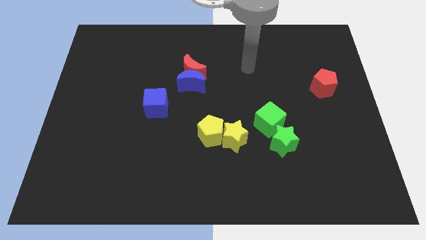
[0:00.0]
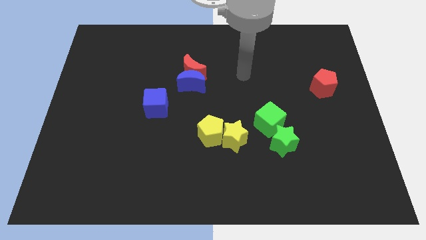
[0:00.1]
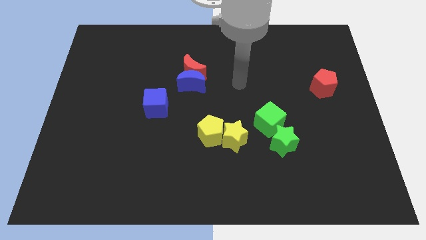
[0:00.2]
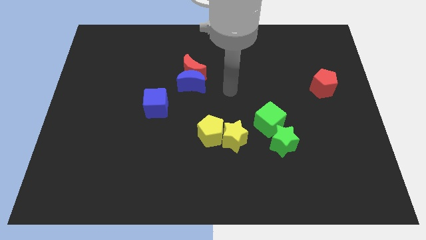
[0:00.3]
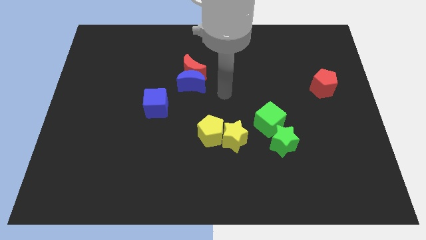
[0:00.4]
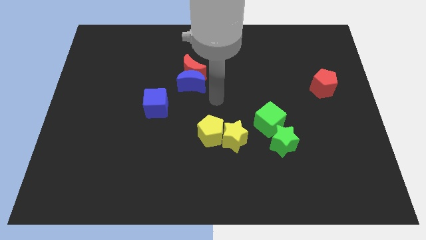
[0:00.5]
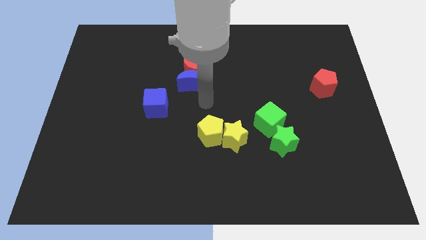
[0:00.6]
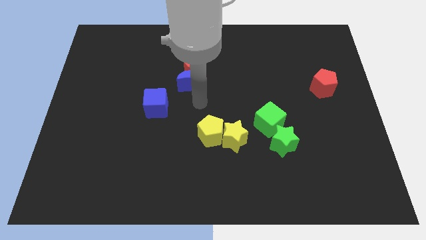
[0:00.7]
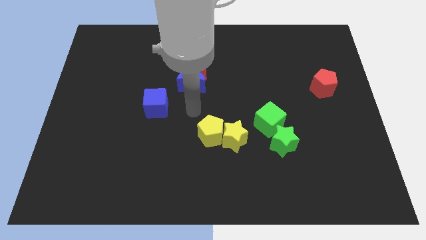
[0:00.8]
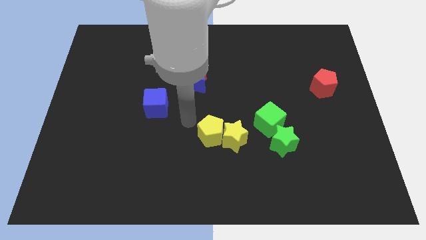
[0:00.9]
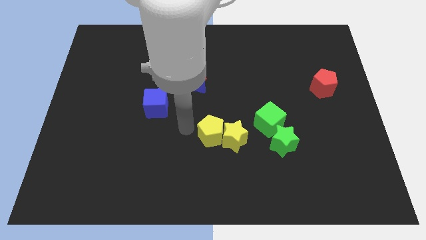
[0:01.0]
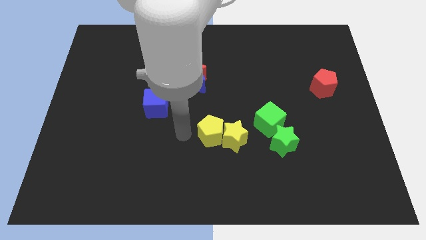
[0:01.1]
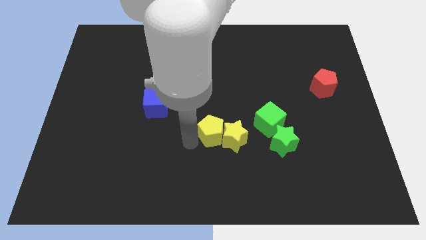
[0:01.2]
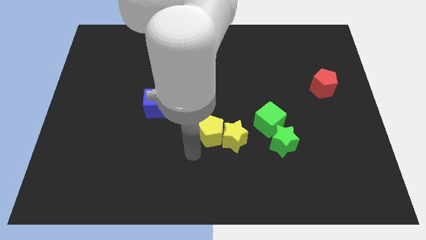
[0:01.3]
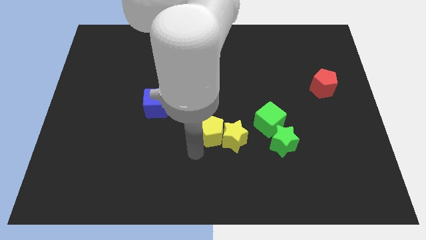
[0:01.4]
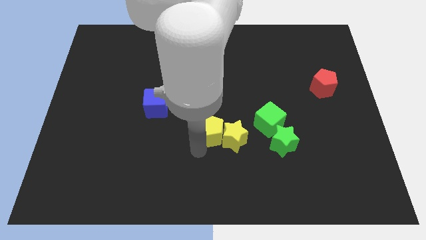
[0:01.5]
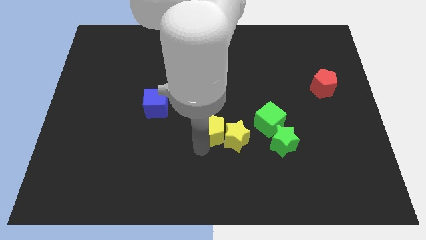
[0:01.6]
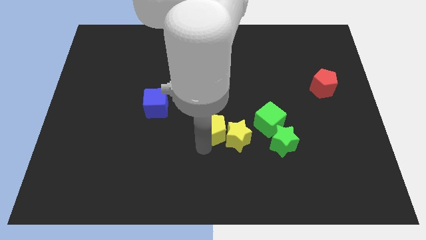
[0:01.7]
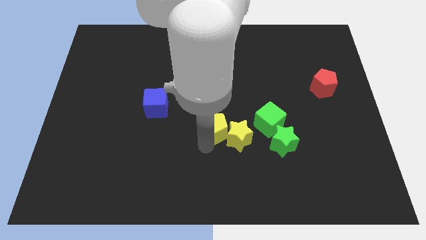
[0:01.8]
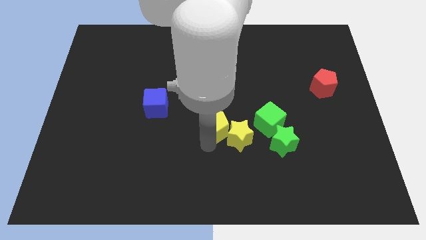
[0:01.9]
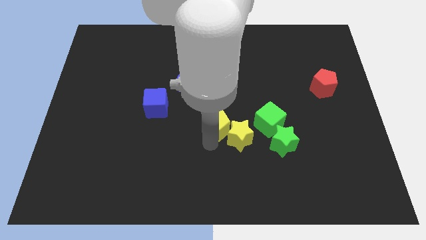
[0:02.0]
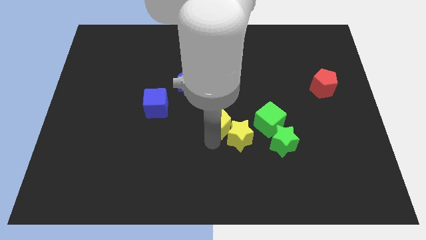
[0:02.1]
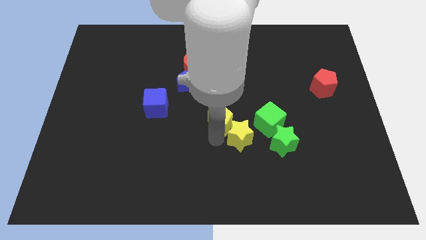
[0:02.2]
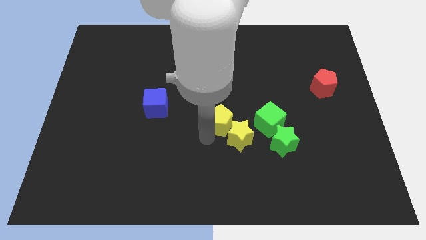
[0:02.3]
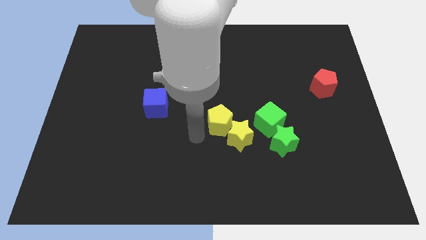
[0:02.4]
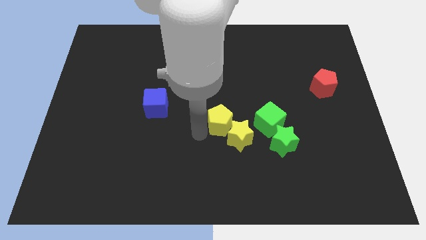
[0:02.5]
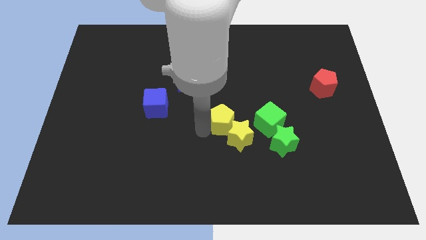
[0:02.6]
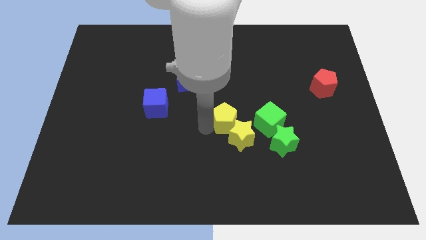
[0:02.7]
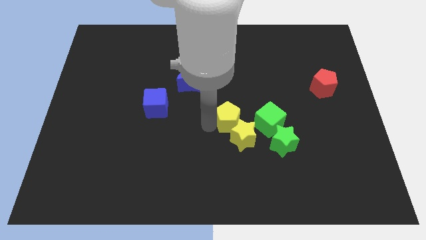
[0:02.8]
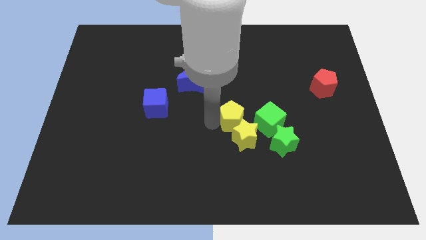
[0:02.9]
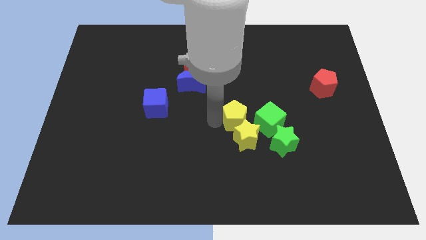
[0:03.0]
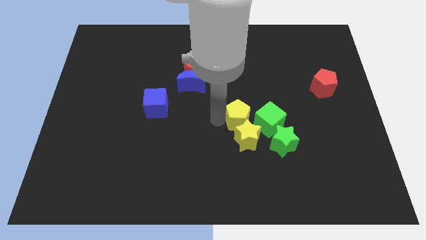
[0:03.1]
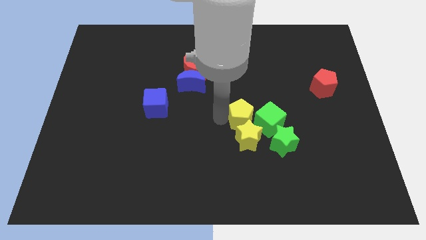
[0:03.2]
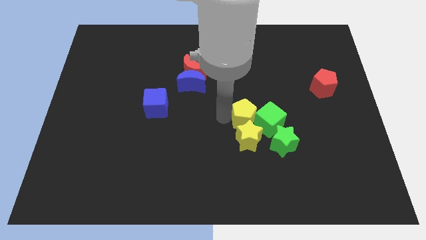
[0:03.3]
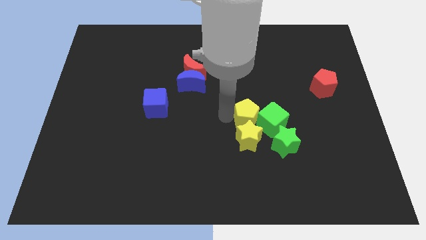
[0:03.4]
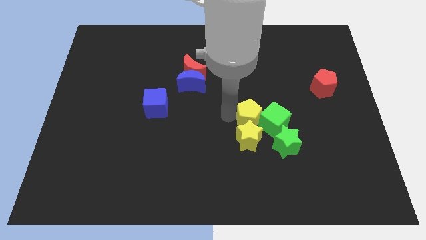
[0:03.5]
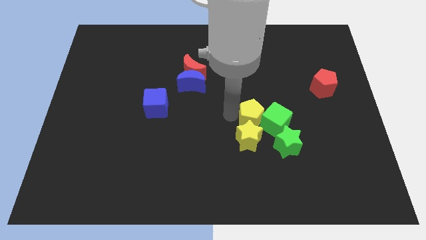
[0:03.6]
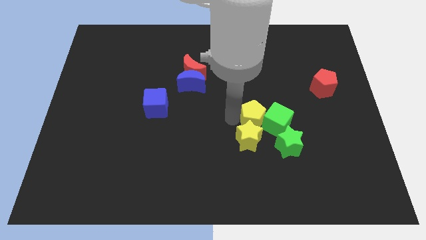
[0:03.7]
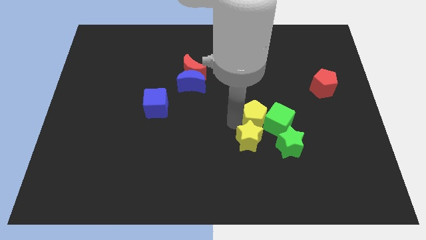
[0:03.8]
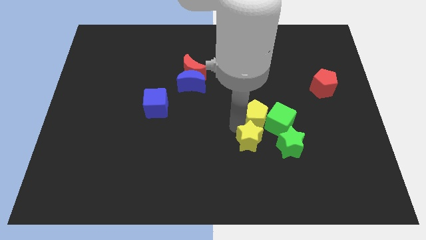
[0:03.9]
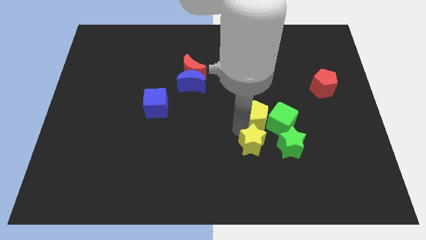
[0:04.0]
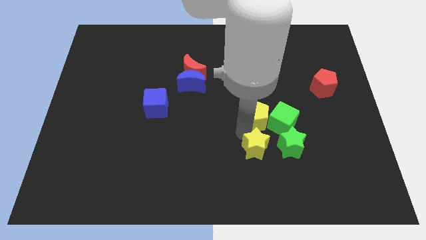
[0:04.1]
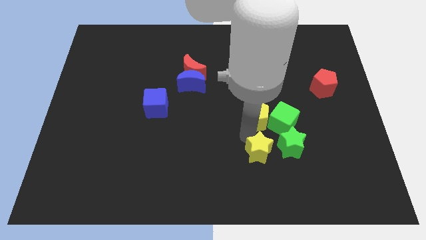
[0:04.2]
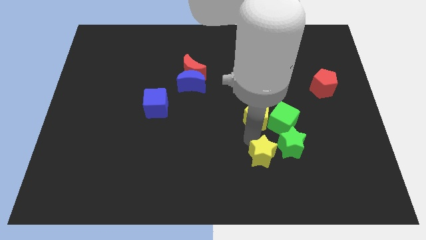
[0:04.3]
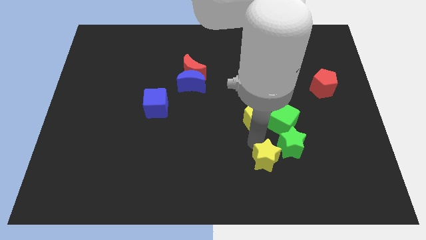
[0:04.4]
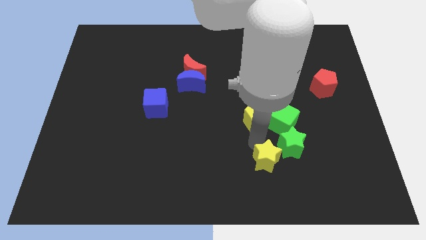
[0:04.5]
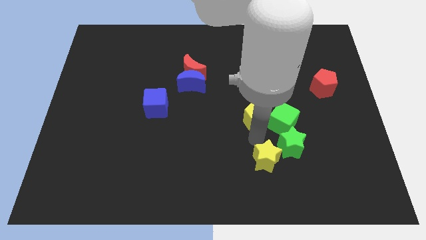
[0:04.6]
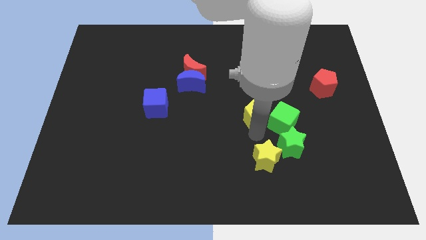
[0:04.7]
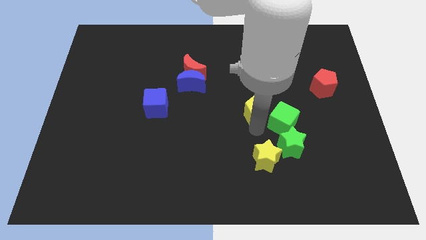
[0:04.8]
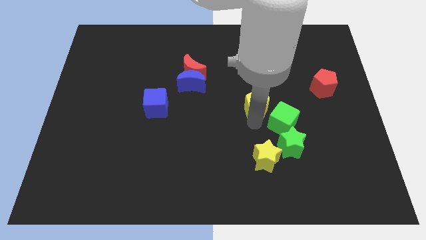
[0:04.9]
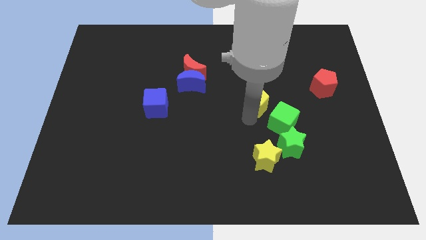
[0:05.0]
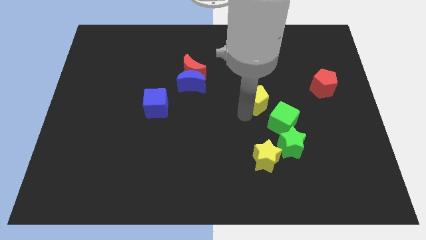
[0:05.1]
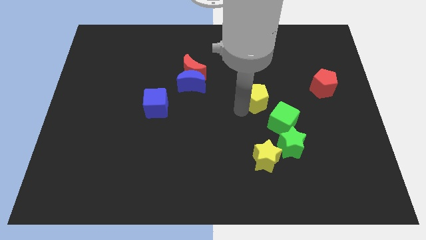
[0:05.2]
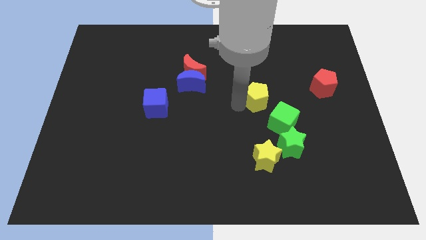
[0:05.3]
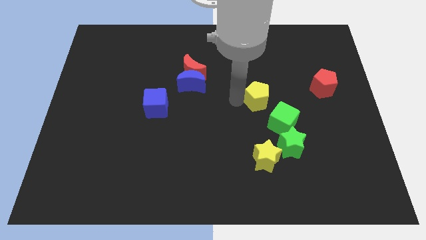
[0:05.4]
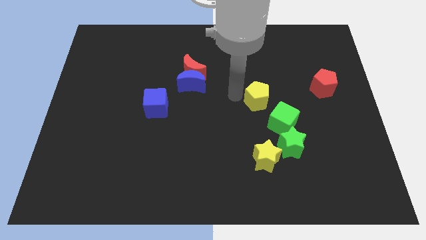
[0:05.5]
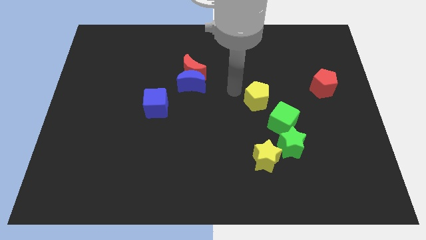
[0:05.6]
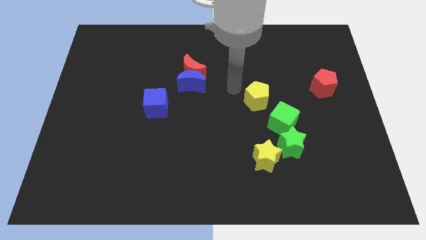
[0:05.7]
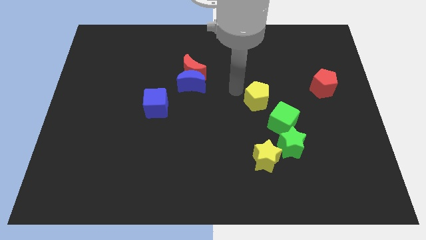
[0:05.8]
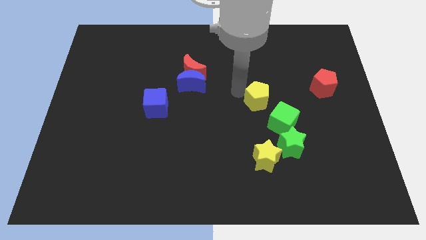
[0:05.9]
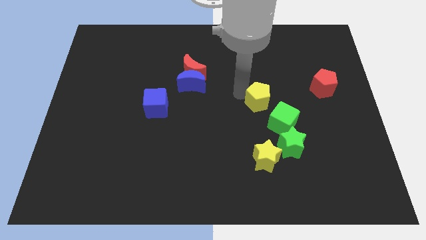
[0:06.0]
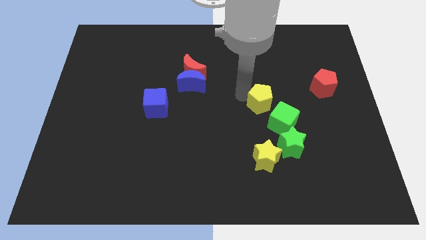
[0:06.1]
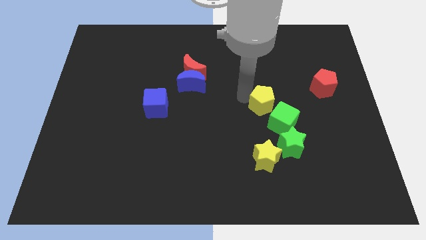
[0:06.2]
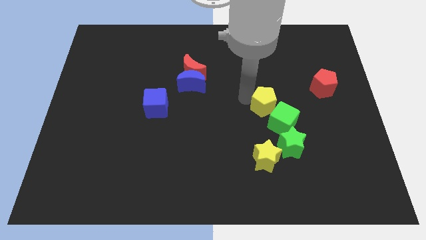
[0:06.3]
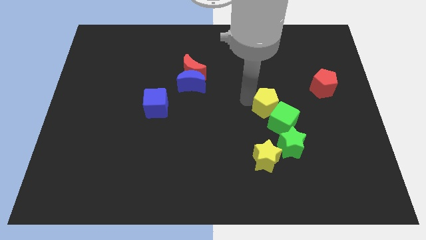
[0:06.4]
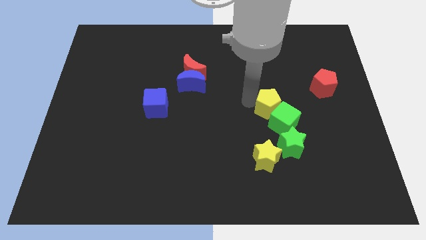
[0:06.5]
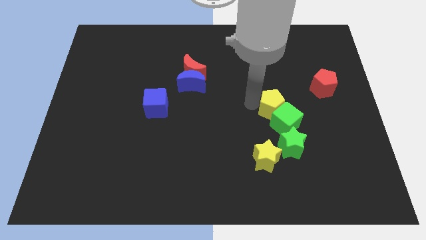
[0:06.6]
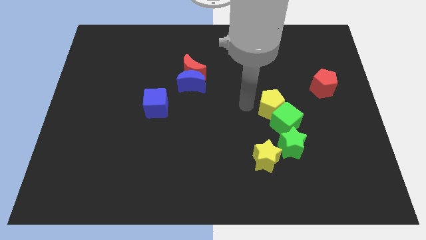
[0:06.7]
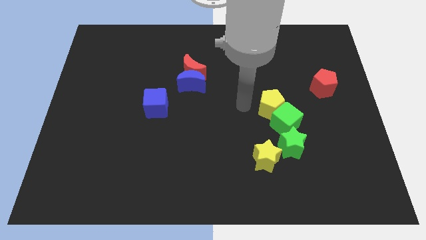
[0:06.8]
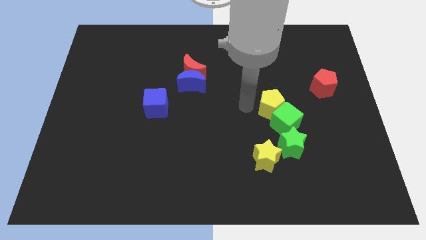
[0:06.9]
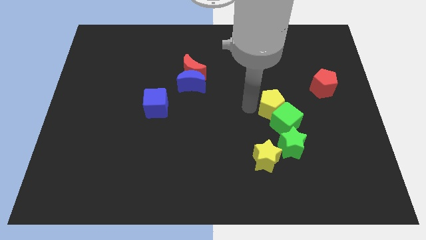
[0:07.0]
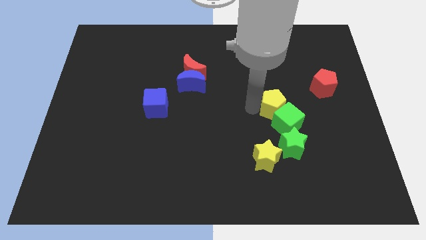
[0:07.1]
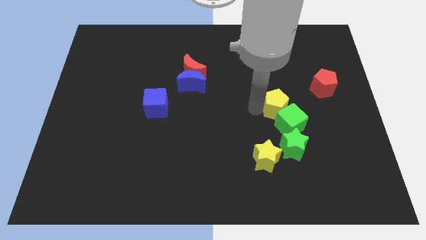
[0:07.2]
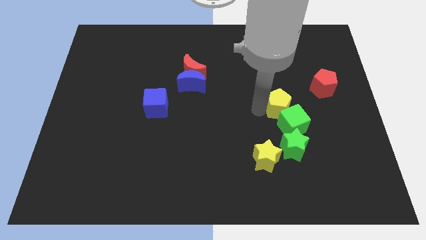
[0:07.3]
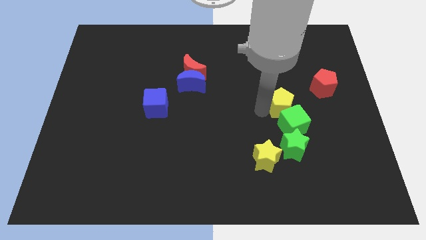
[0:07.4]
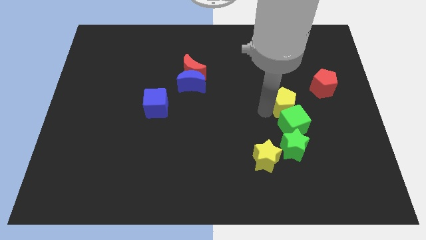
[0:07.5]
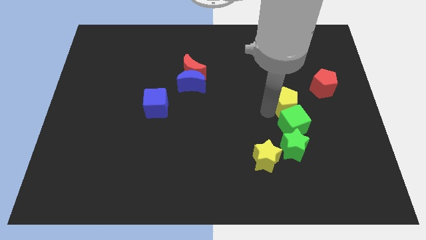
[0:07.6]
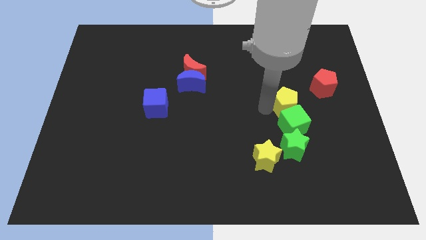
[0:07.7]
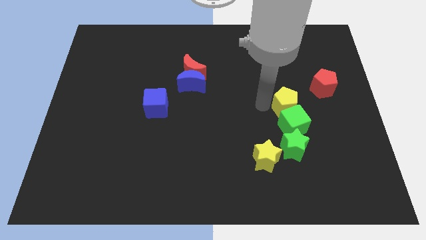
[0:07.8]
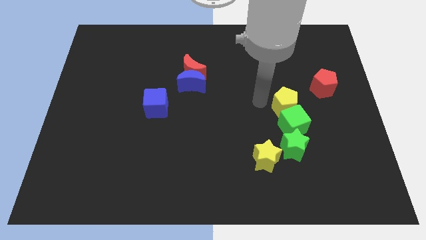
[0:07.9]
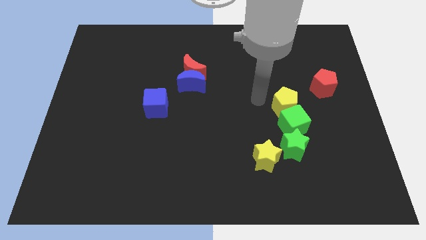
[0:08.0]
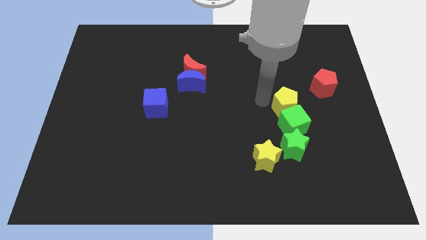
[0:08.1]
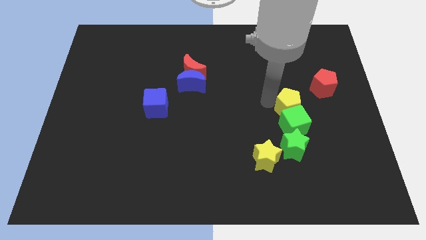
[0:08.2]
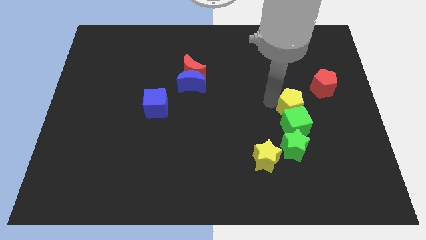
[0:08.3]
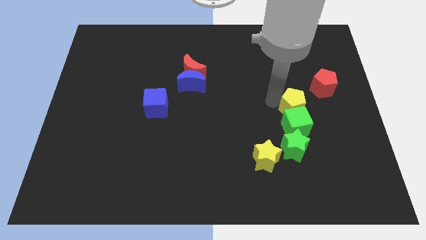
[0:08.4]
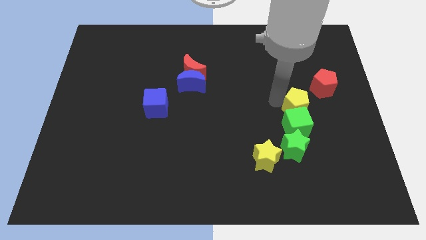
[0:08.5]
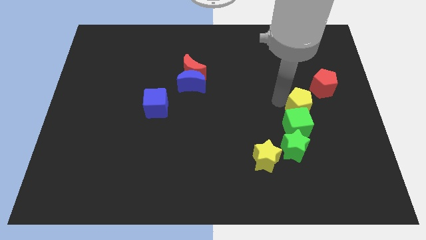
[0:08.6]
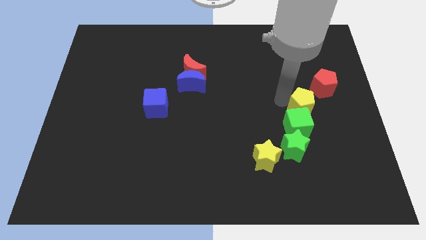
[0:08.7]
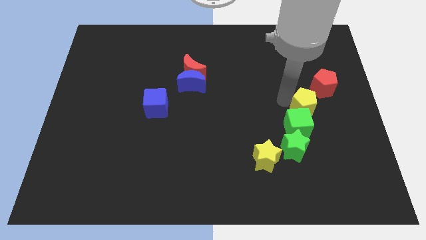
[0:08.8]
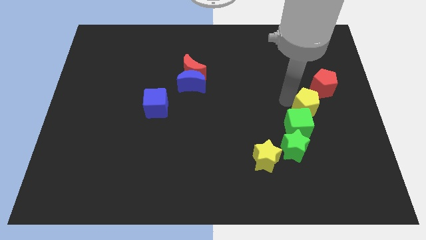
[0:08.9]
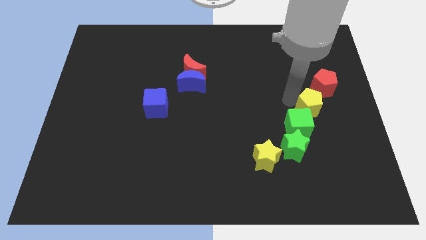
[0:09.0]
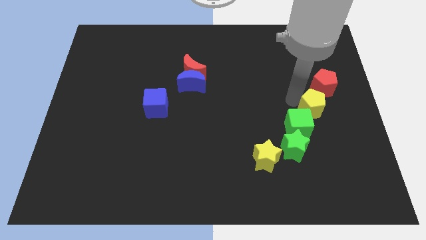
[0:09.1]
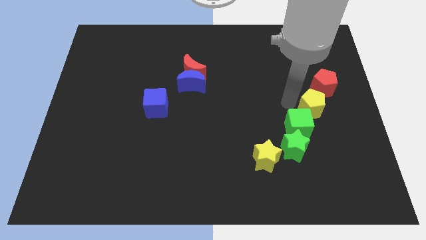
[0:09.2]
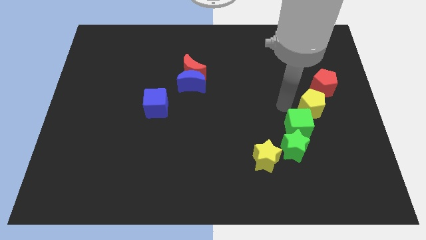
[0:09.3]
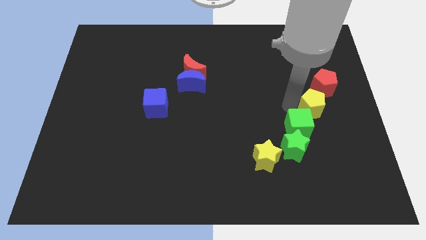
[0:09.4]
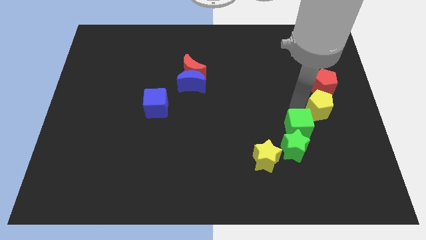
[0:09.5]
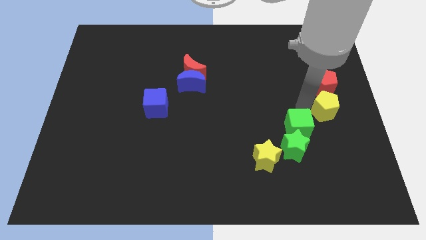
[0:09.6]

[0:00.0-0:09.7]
slide the yellow pentagon to the right side of the board
